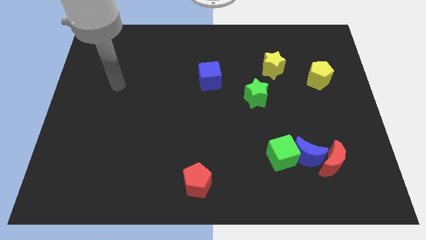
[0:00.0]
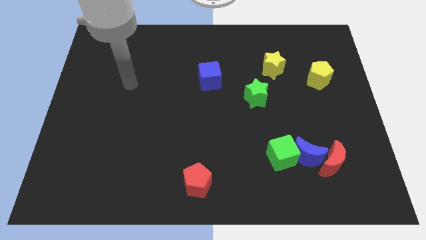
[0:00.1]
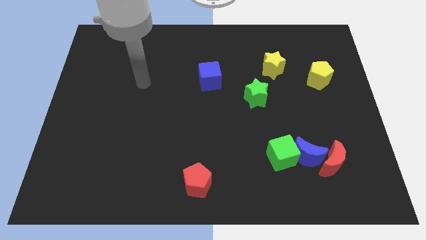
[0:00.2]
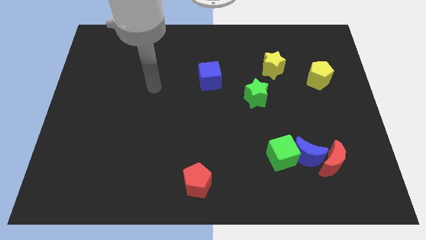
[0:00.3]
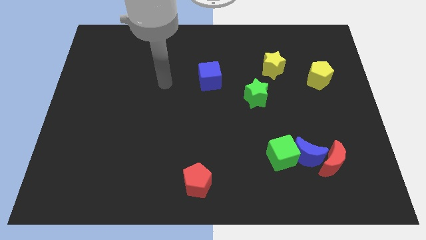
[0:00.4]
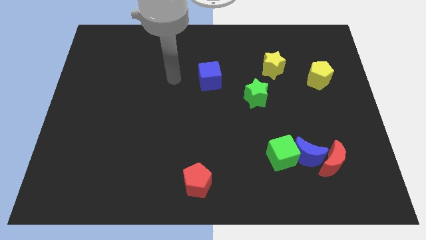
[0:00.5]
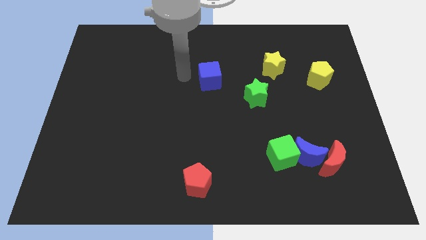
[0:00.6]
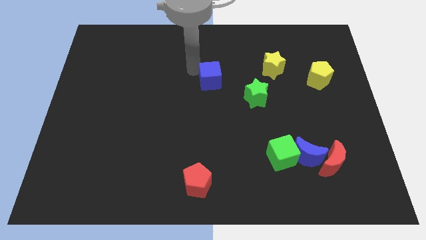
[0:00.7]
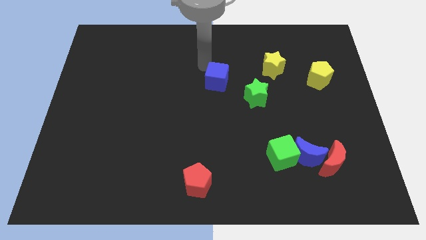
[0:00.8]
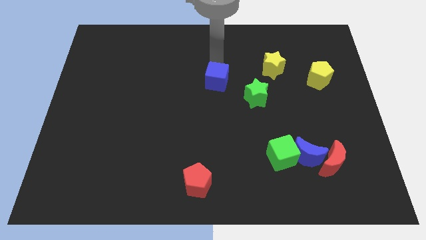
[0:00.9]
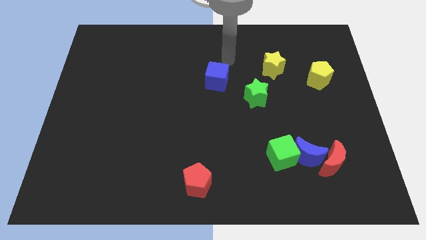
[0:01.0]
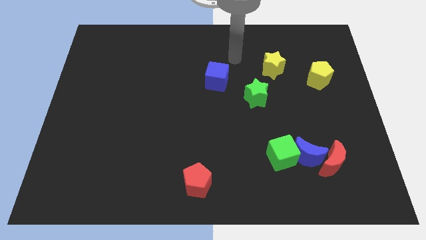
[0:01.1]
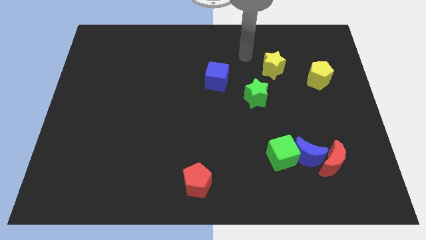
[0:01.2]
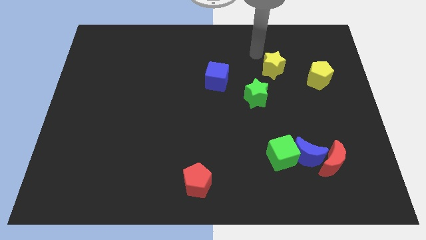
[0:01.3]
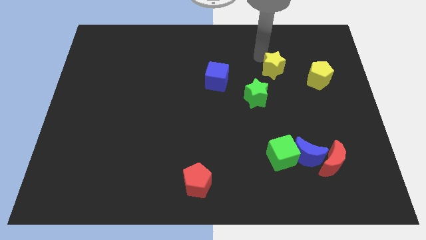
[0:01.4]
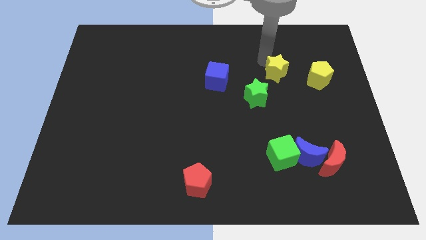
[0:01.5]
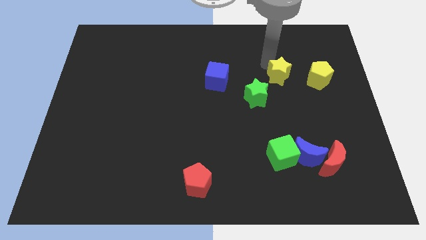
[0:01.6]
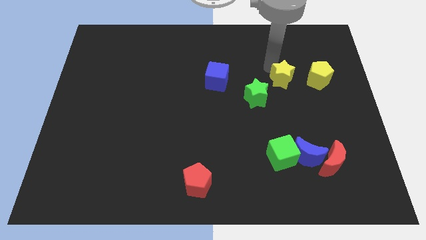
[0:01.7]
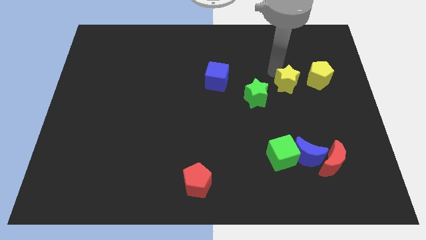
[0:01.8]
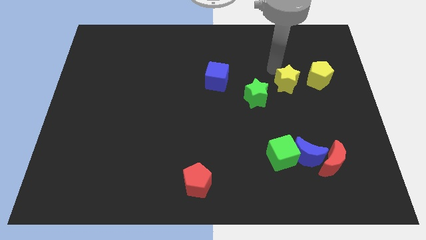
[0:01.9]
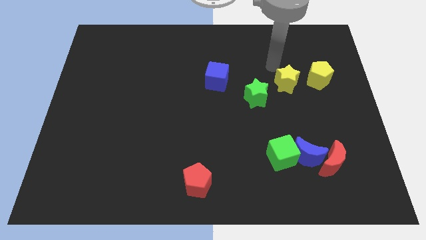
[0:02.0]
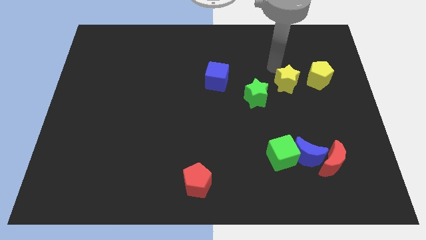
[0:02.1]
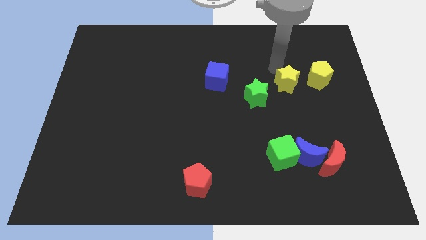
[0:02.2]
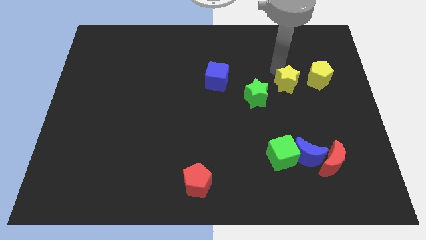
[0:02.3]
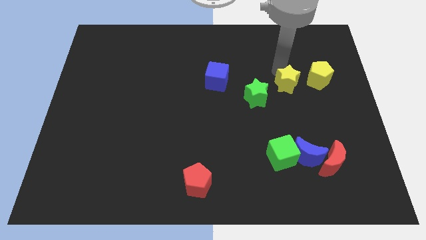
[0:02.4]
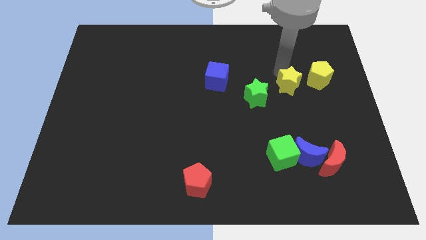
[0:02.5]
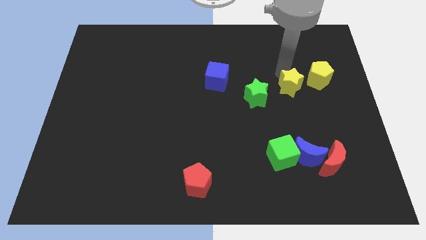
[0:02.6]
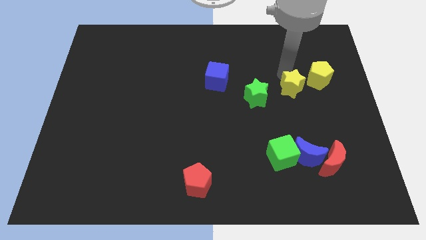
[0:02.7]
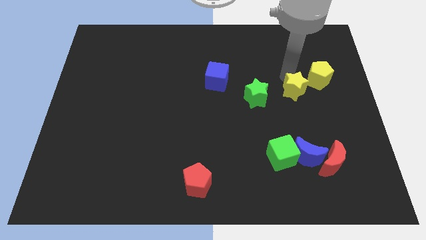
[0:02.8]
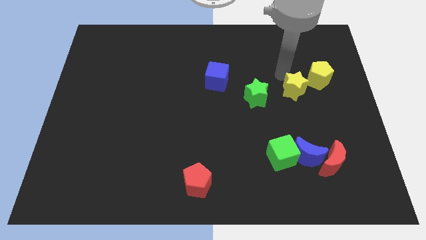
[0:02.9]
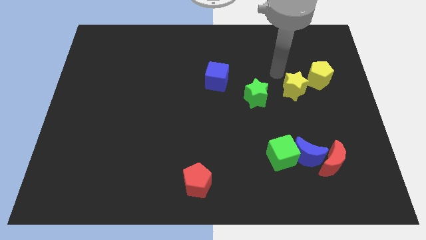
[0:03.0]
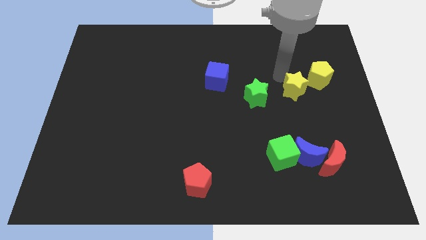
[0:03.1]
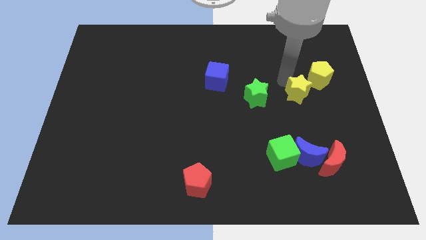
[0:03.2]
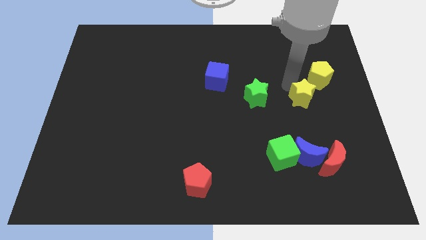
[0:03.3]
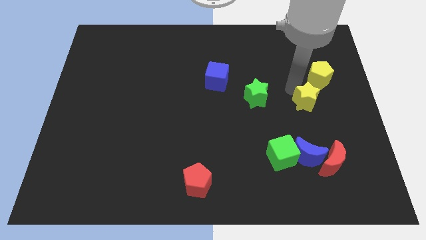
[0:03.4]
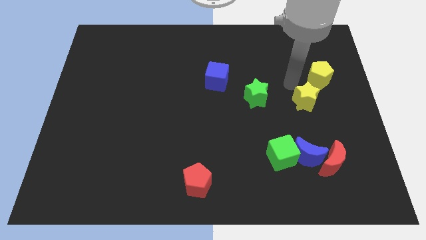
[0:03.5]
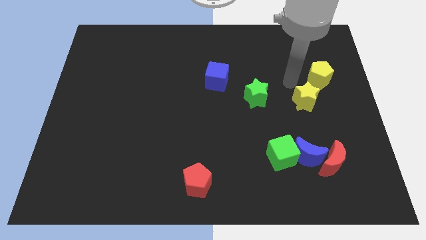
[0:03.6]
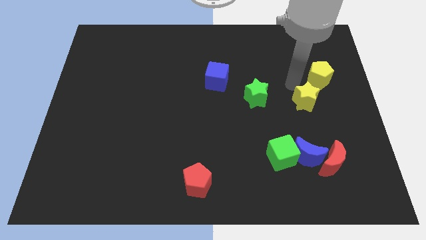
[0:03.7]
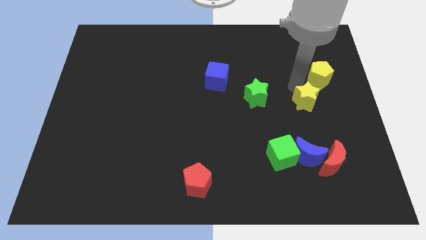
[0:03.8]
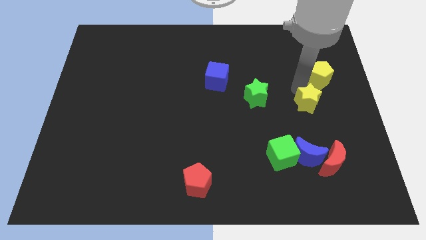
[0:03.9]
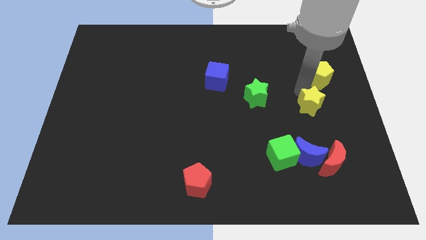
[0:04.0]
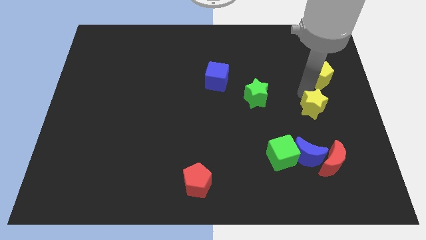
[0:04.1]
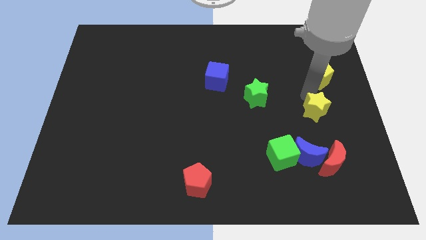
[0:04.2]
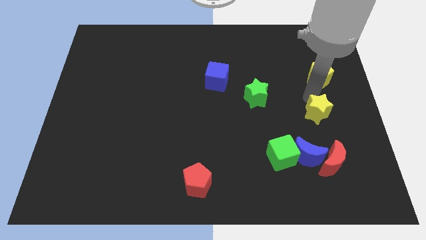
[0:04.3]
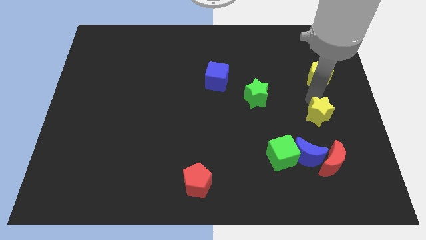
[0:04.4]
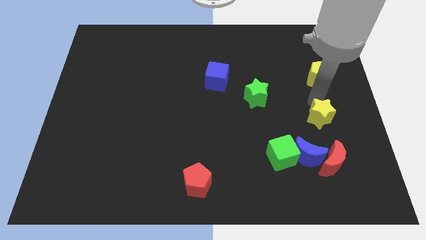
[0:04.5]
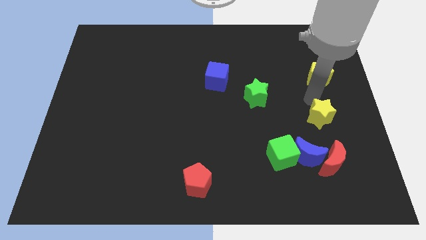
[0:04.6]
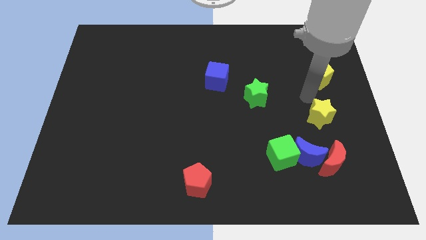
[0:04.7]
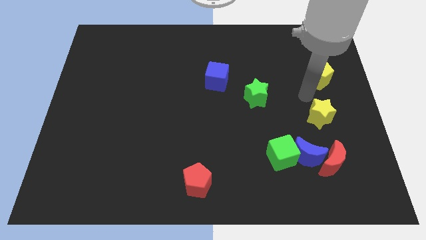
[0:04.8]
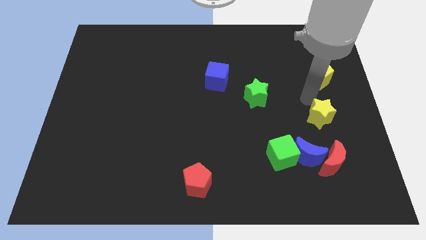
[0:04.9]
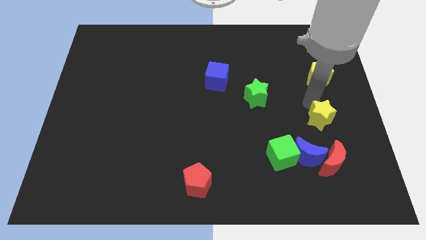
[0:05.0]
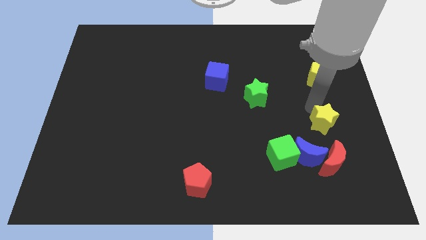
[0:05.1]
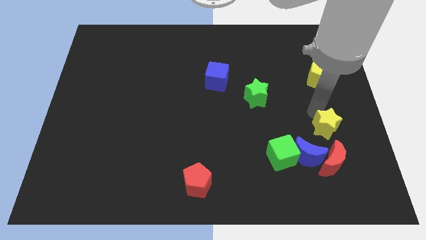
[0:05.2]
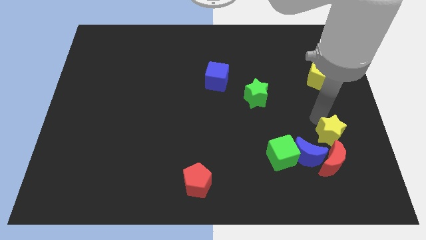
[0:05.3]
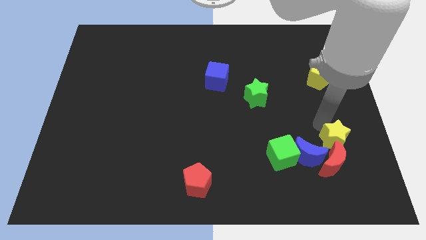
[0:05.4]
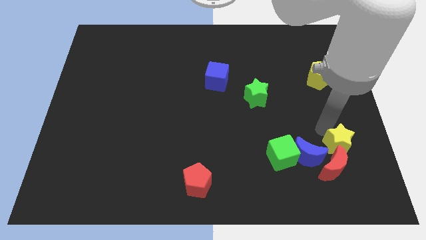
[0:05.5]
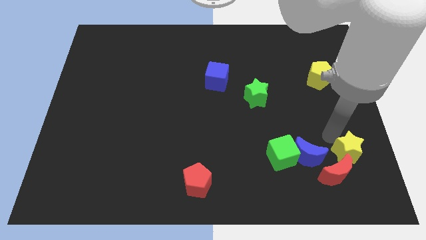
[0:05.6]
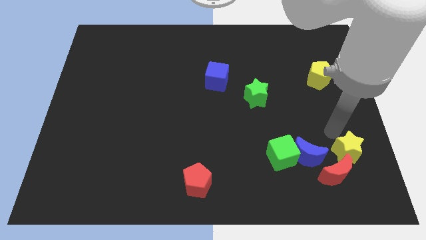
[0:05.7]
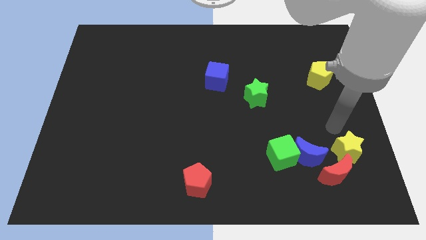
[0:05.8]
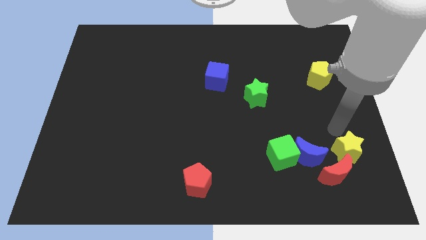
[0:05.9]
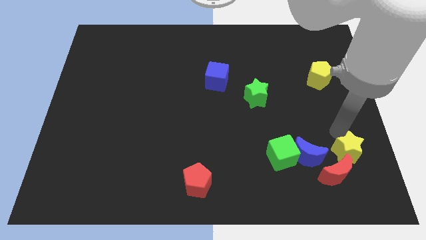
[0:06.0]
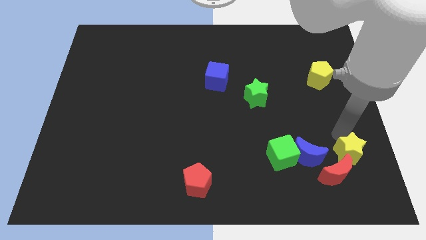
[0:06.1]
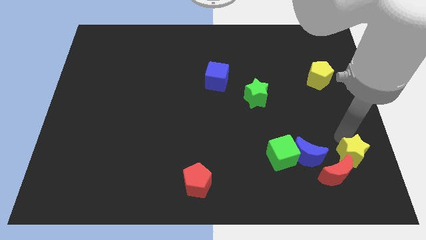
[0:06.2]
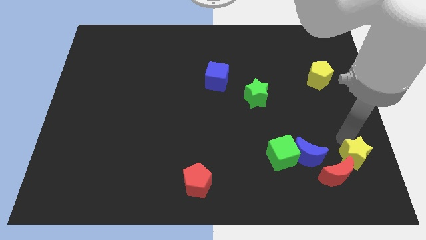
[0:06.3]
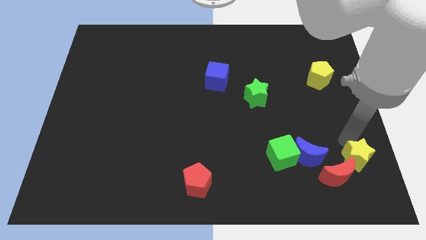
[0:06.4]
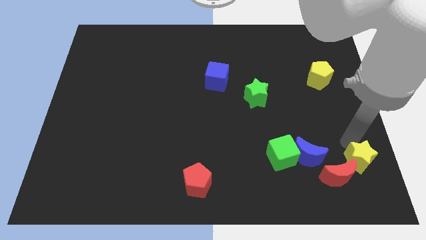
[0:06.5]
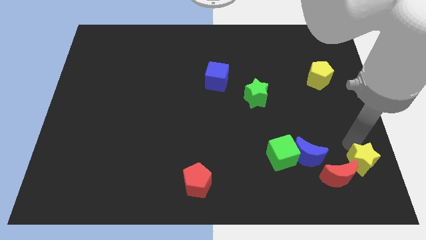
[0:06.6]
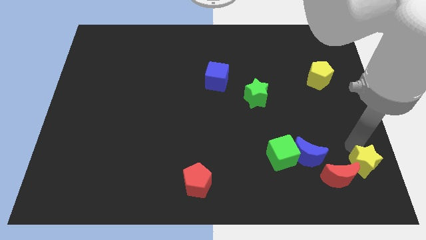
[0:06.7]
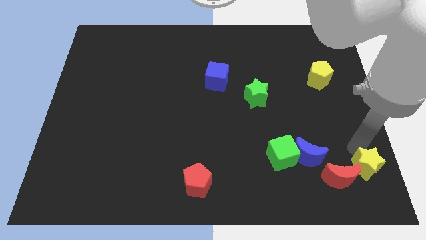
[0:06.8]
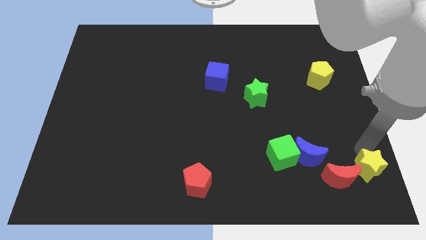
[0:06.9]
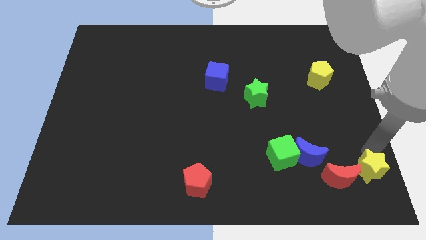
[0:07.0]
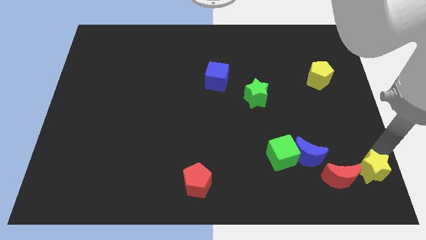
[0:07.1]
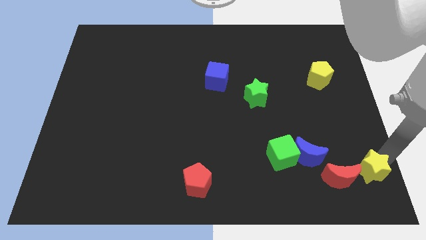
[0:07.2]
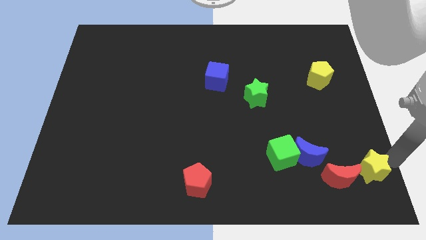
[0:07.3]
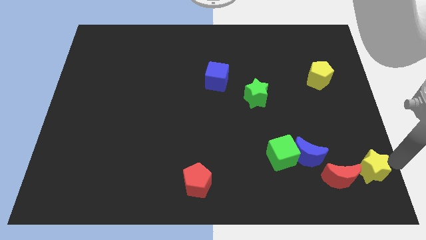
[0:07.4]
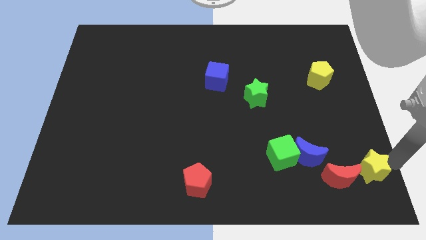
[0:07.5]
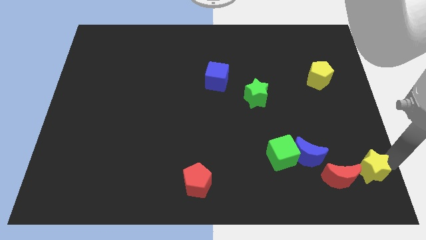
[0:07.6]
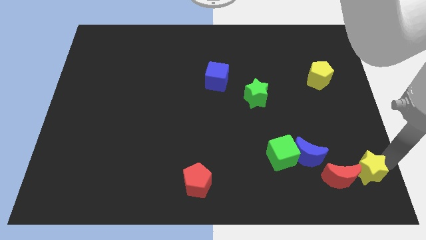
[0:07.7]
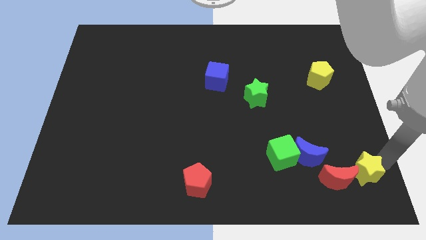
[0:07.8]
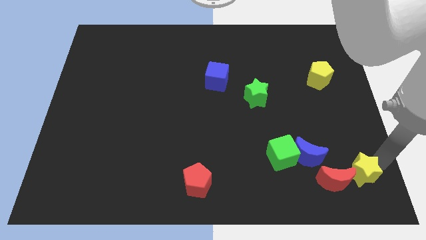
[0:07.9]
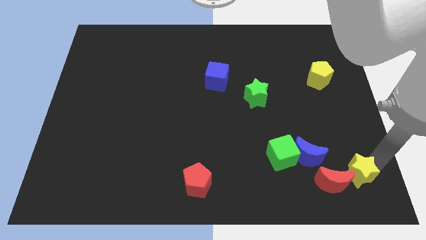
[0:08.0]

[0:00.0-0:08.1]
put the yellow star to the bottom right of the blue moon

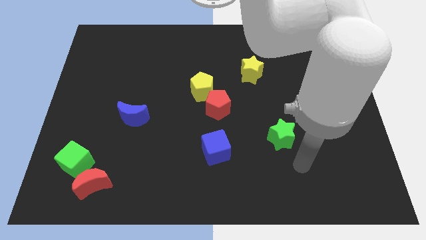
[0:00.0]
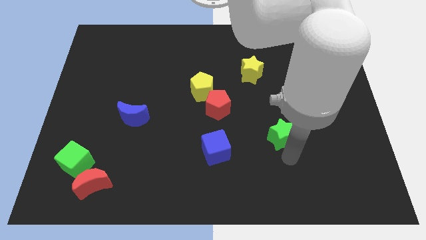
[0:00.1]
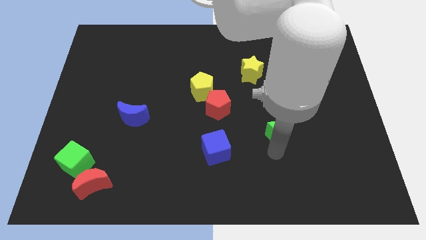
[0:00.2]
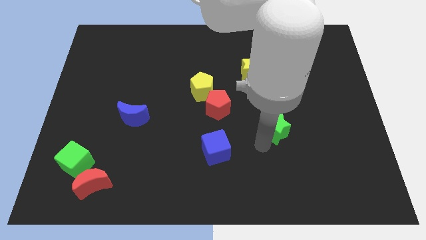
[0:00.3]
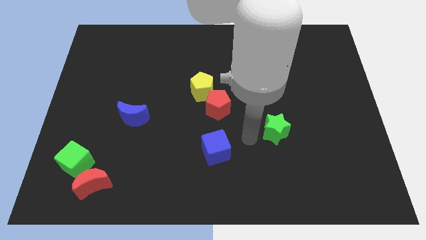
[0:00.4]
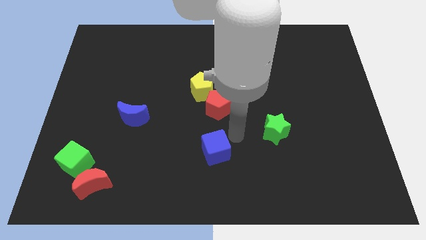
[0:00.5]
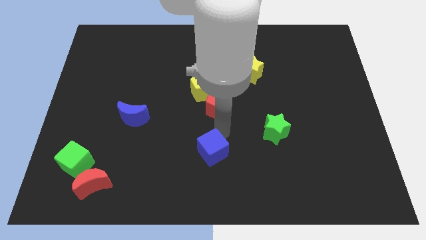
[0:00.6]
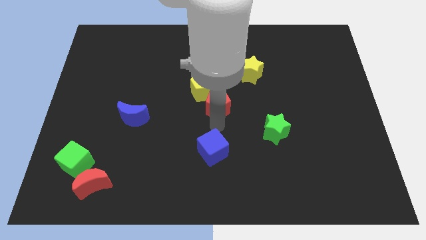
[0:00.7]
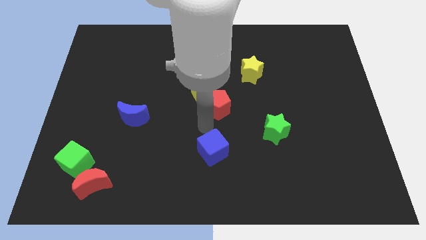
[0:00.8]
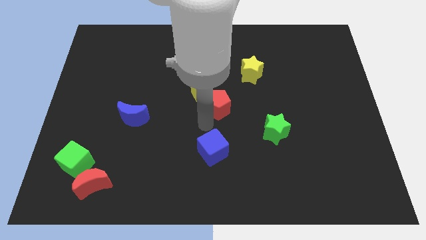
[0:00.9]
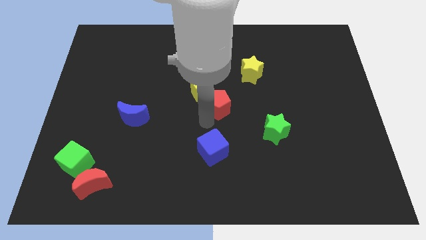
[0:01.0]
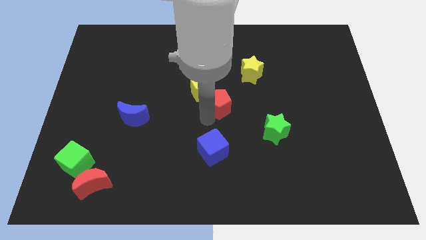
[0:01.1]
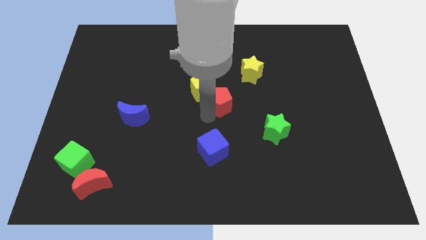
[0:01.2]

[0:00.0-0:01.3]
put the red pentagon diagonally down and to the left of the yellow star
